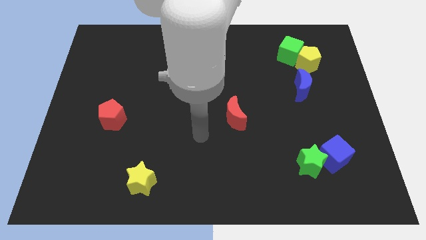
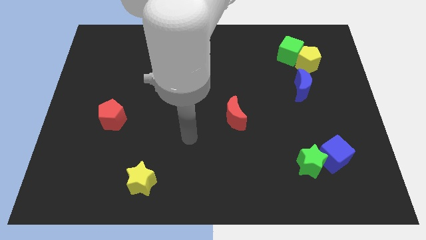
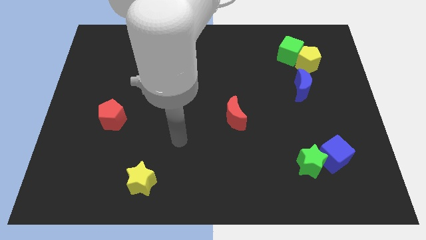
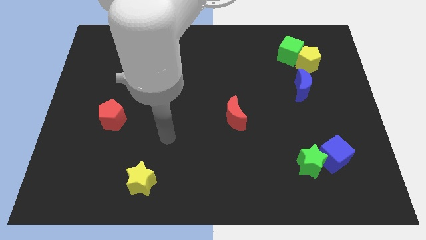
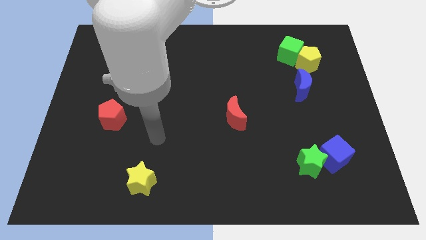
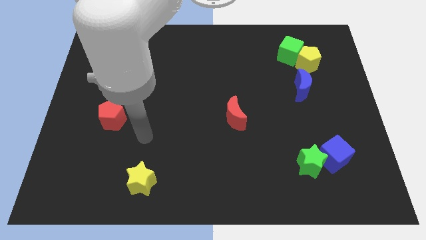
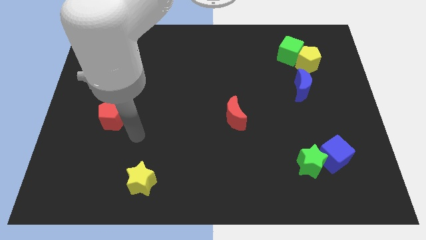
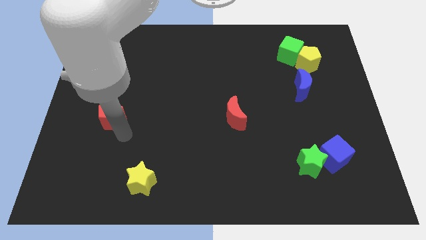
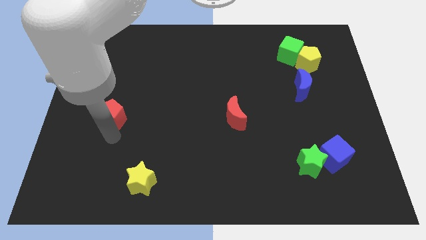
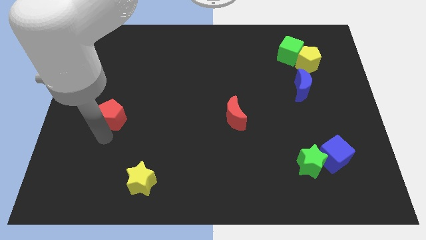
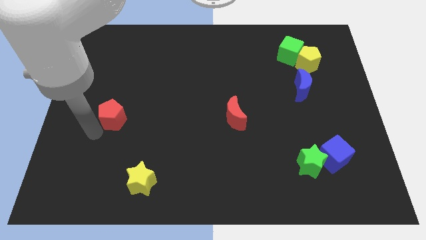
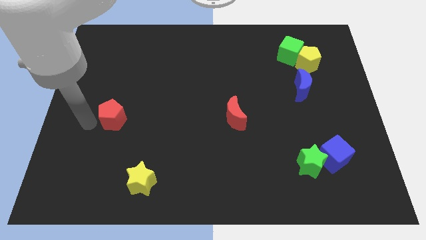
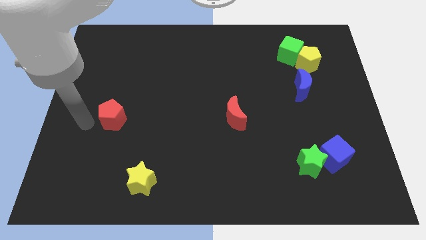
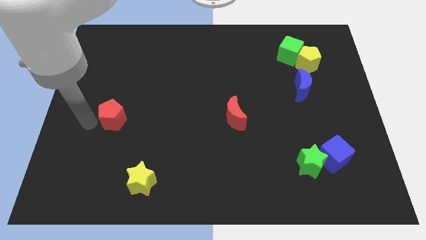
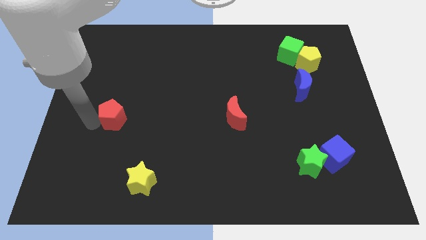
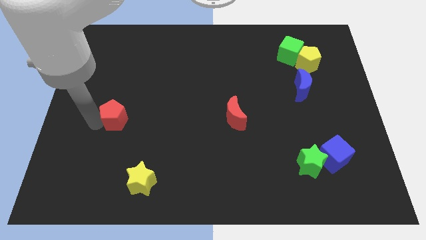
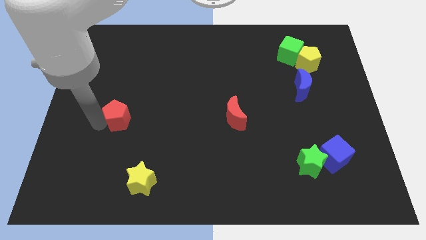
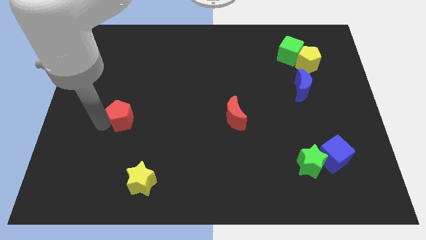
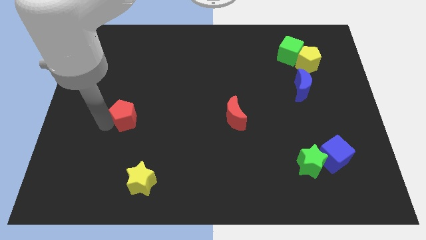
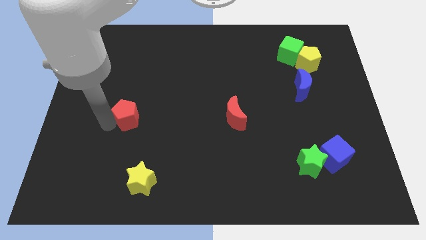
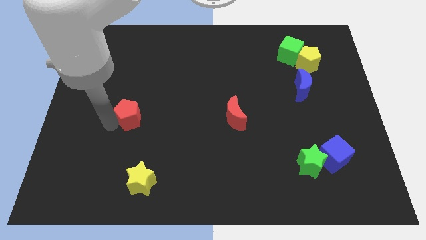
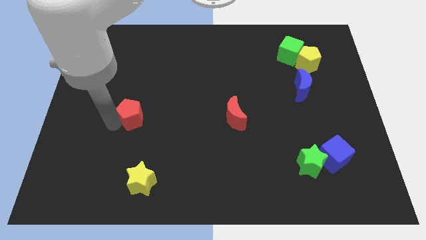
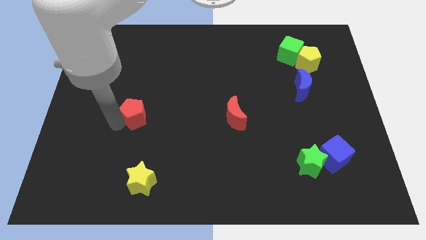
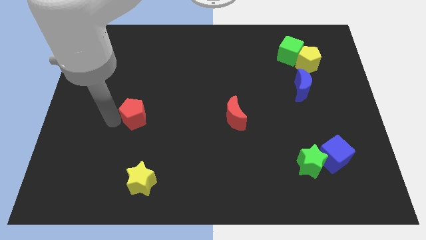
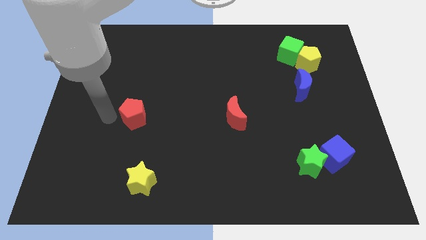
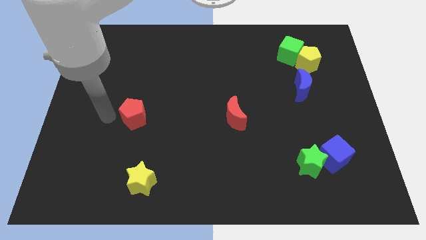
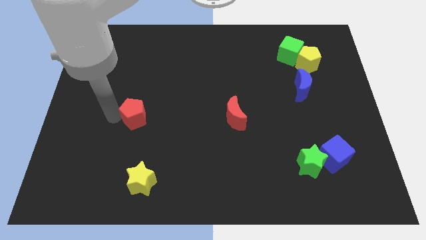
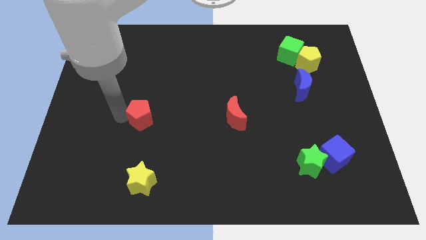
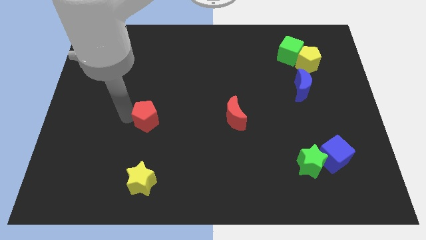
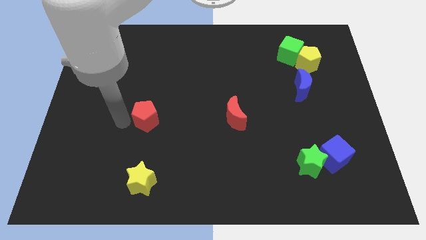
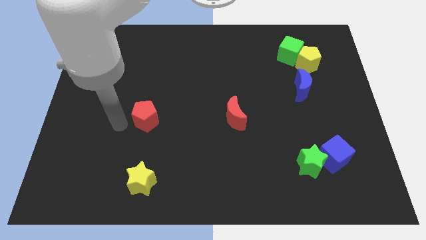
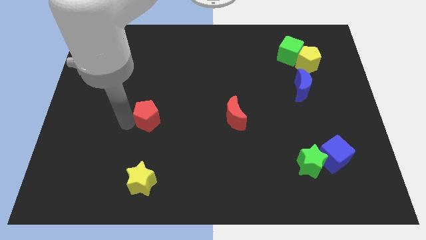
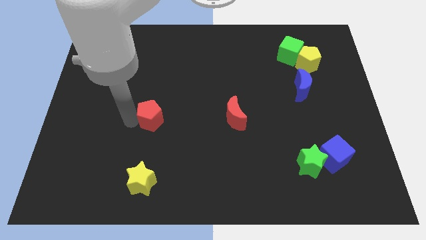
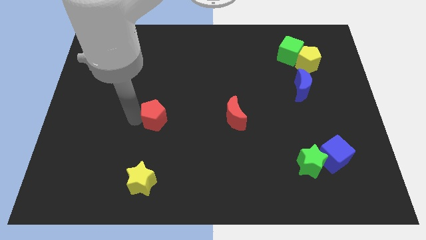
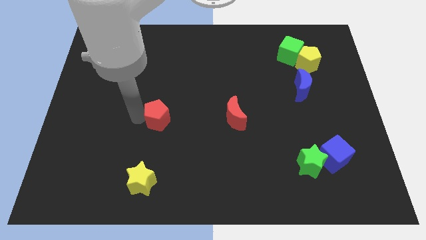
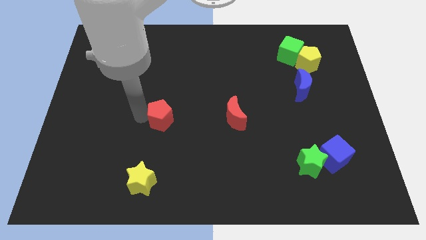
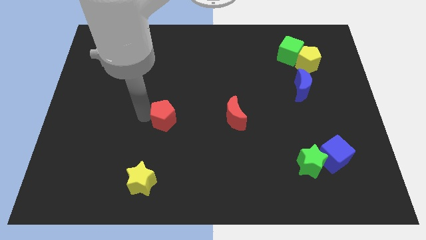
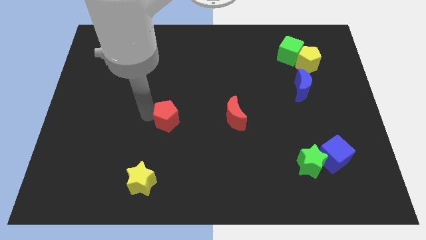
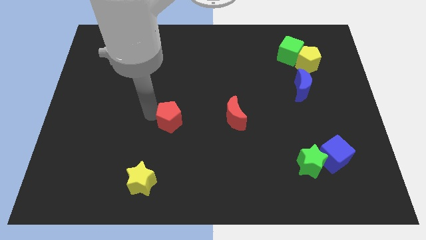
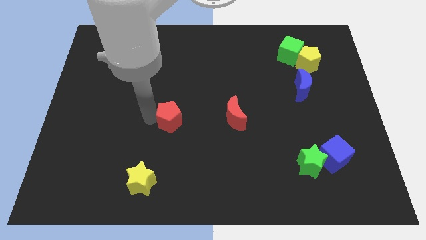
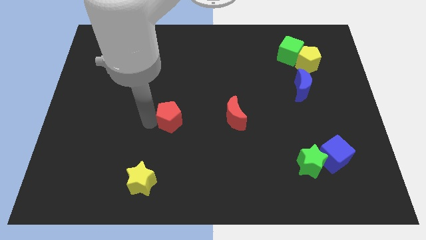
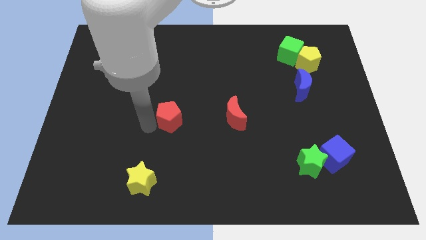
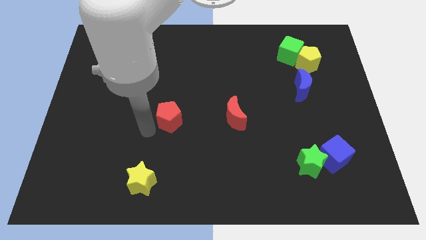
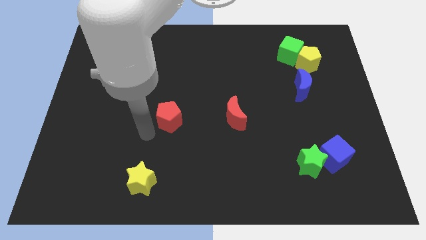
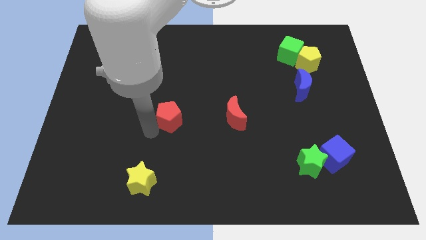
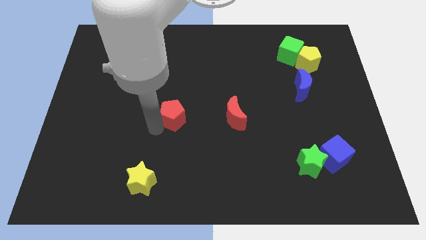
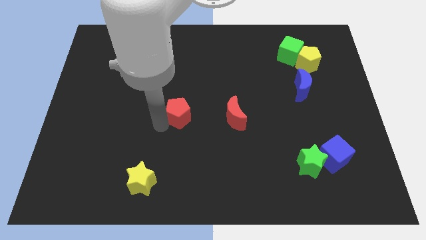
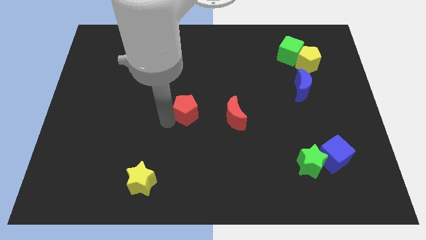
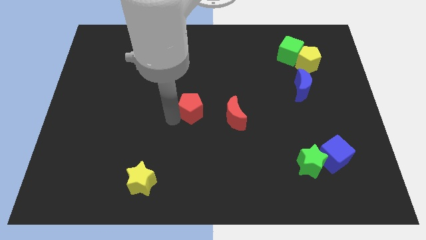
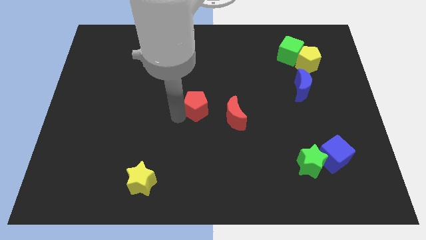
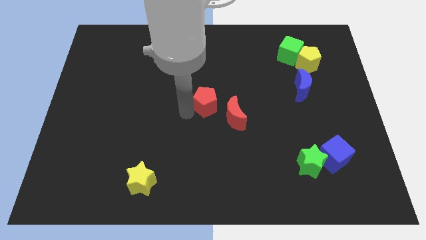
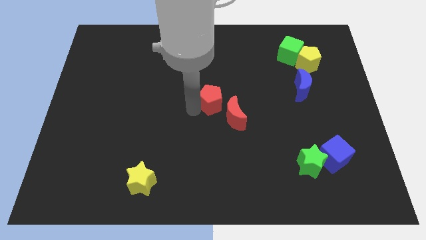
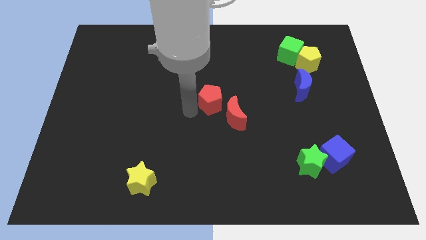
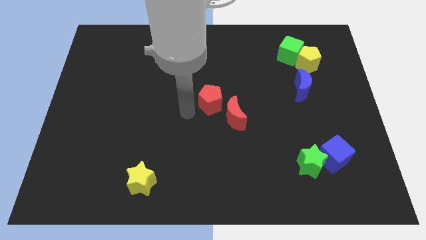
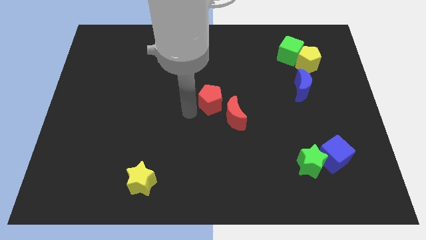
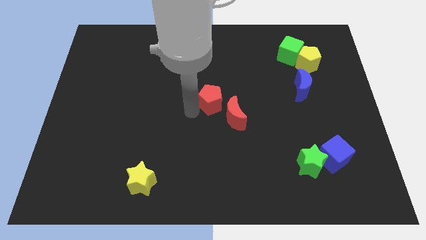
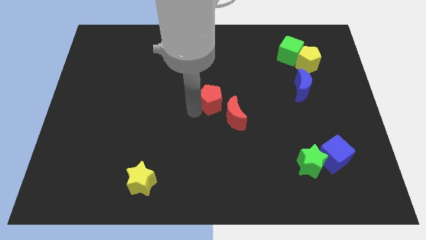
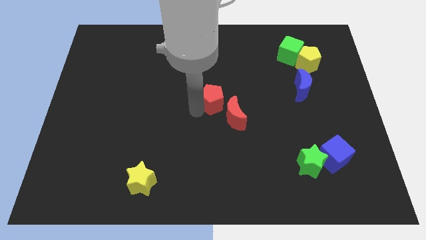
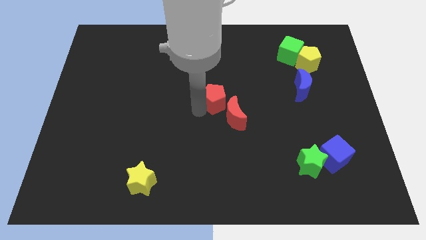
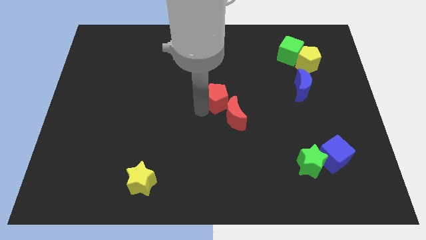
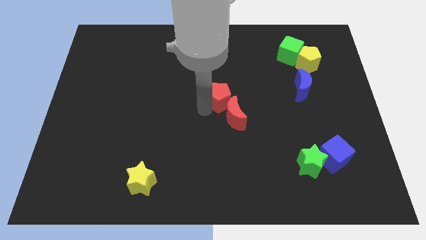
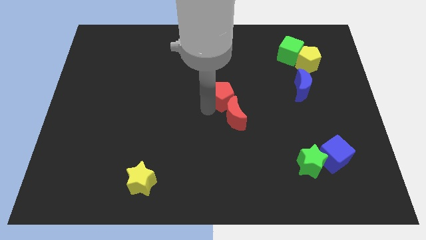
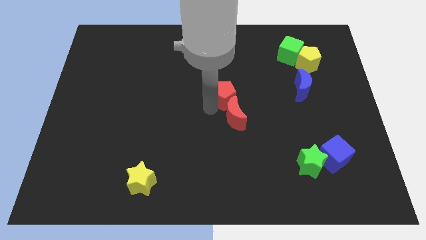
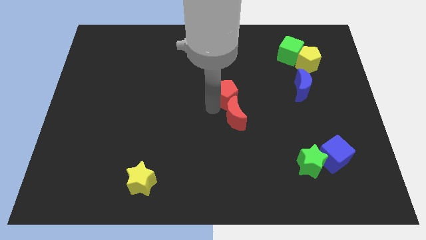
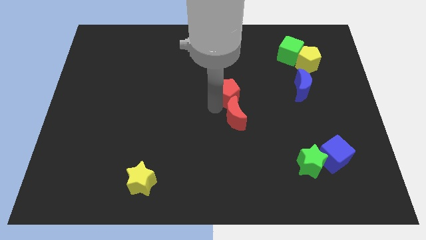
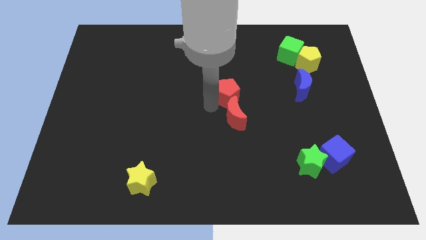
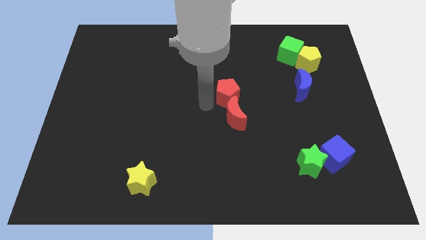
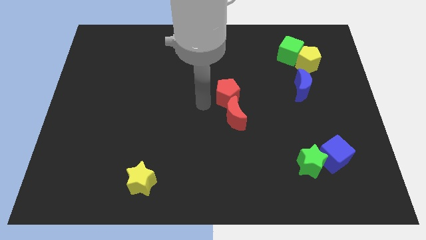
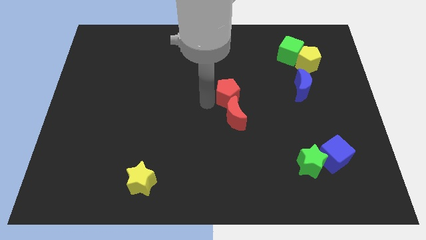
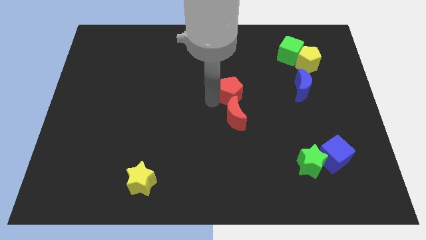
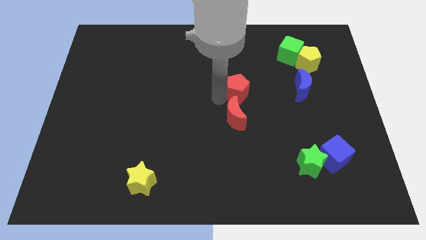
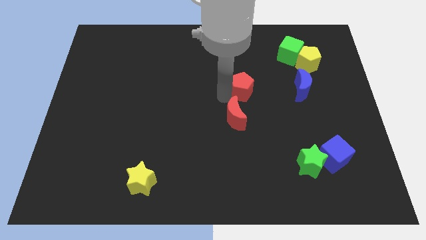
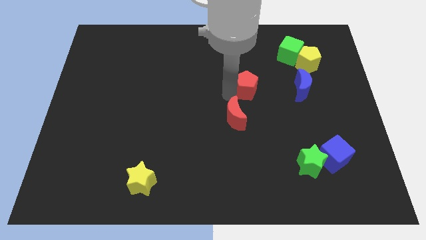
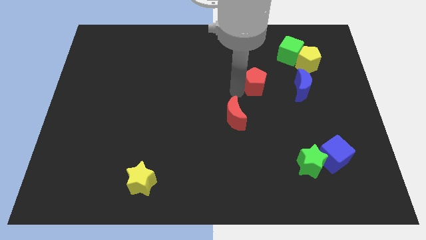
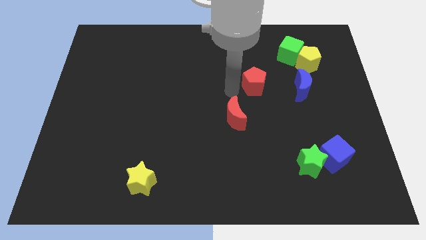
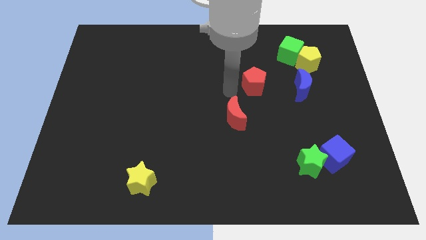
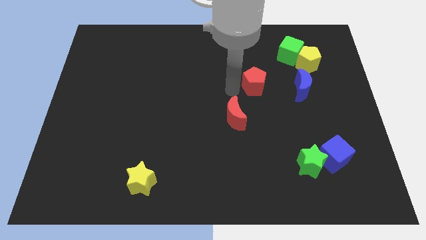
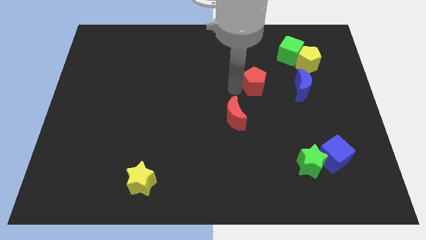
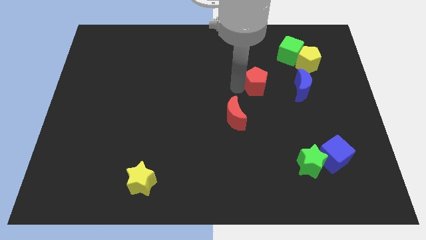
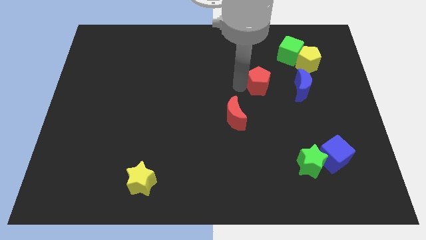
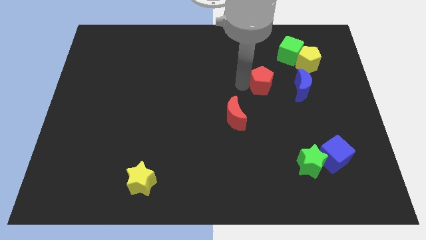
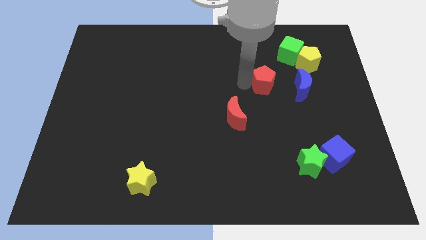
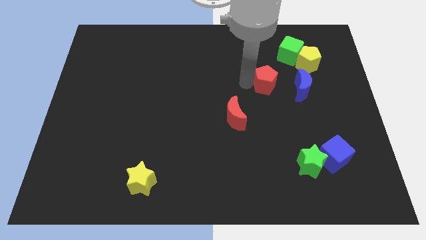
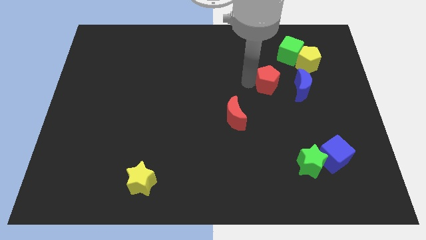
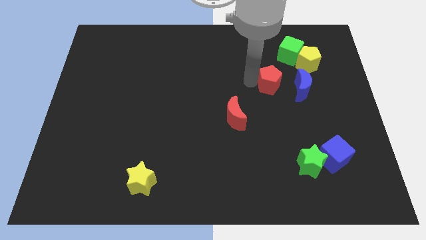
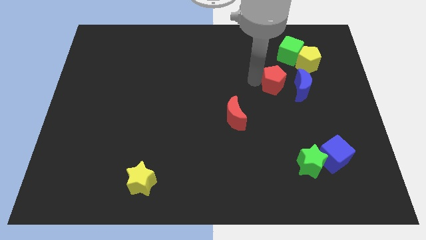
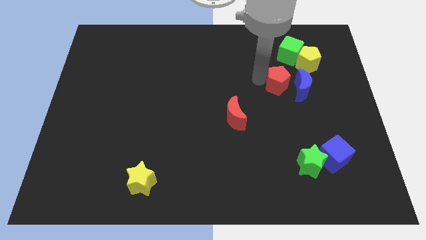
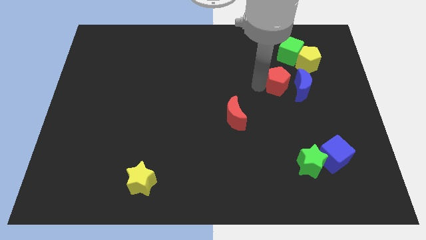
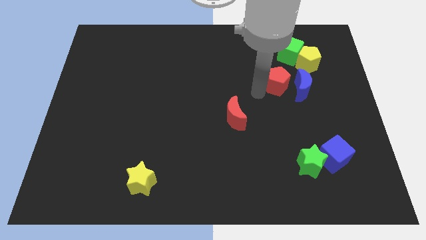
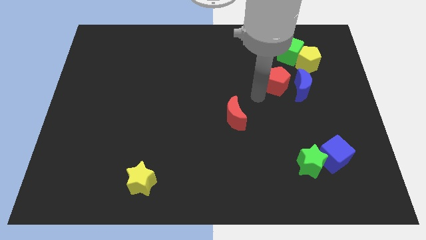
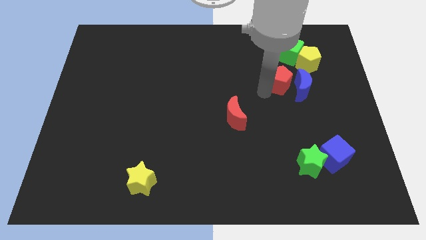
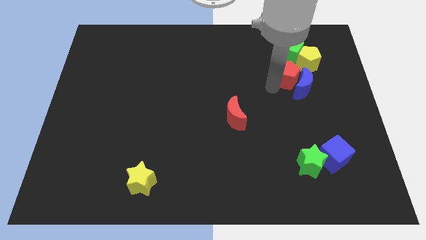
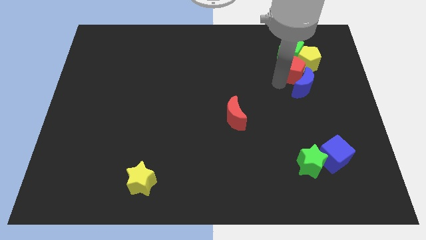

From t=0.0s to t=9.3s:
slide the red pentagon towards the yellow pentagon
